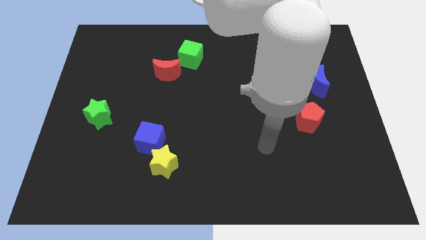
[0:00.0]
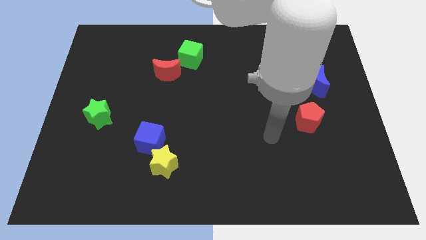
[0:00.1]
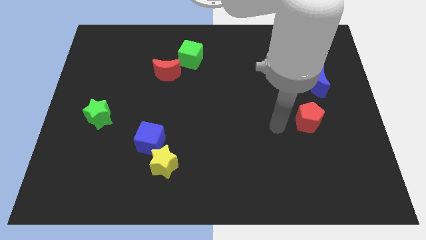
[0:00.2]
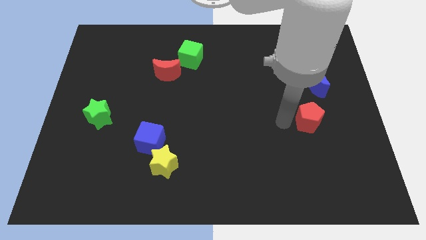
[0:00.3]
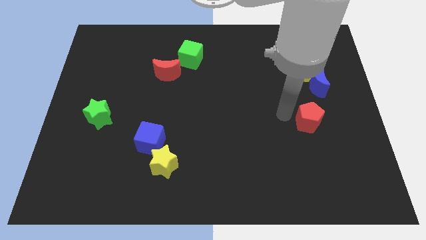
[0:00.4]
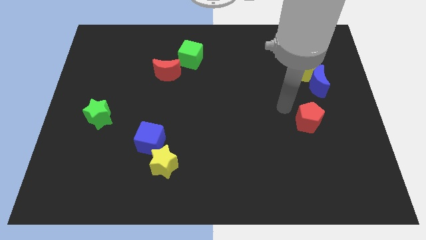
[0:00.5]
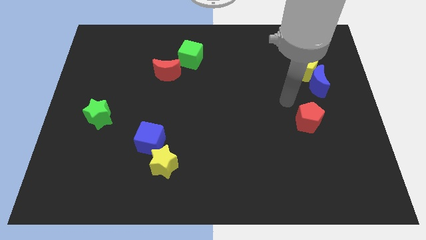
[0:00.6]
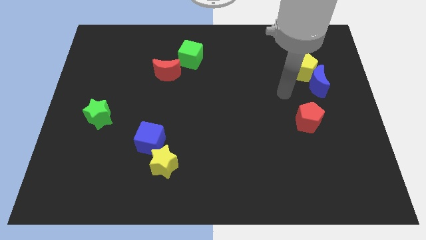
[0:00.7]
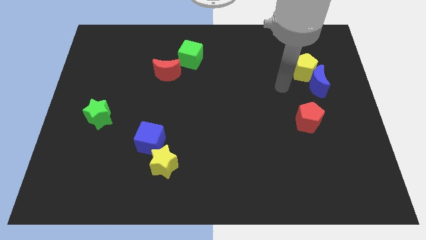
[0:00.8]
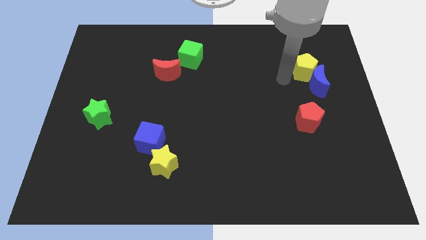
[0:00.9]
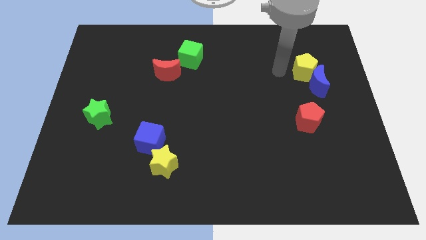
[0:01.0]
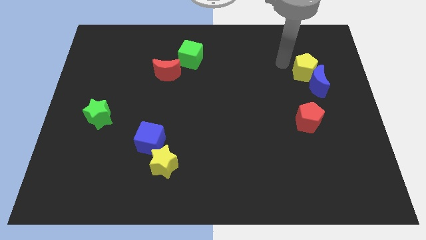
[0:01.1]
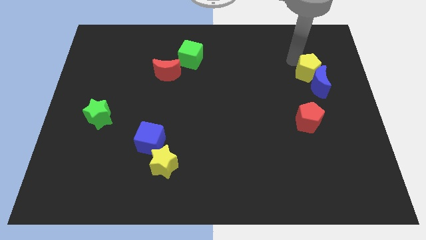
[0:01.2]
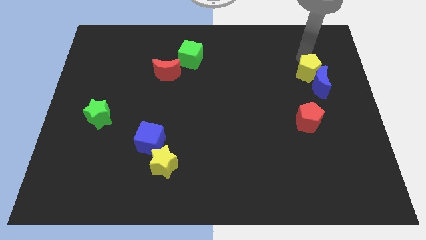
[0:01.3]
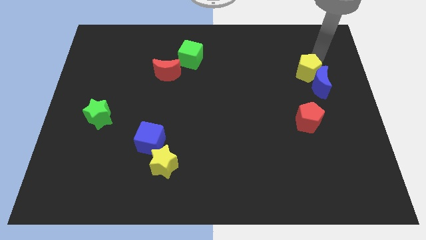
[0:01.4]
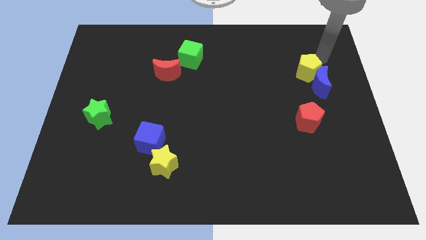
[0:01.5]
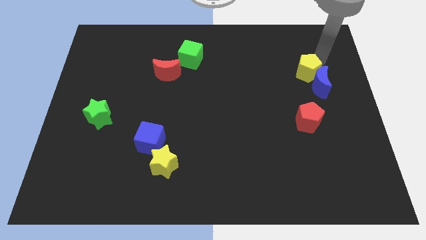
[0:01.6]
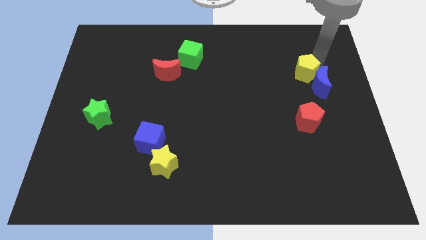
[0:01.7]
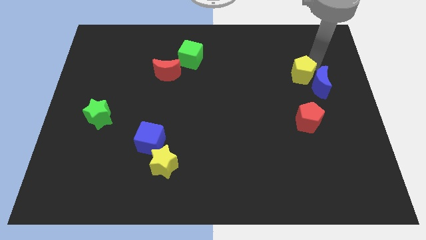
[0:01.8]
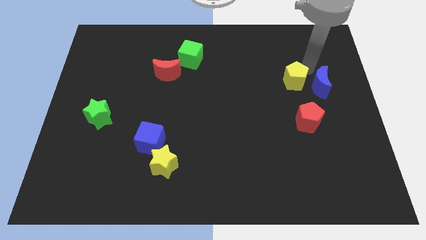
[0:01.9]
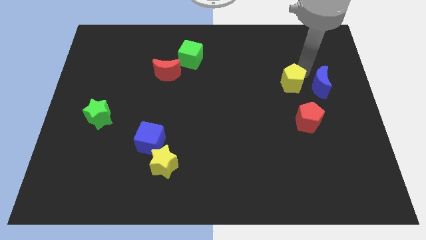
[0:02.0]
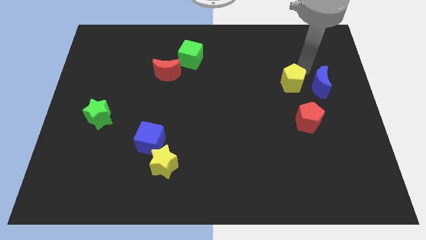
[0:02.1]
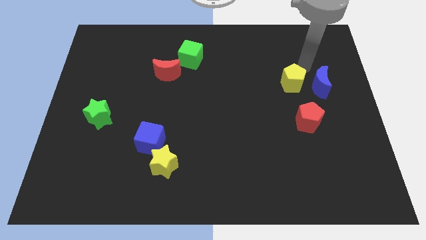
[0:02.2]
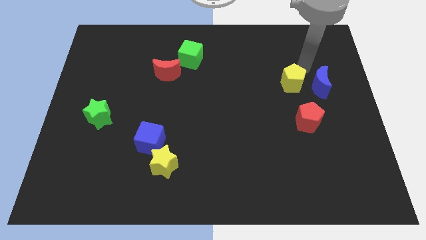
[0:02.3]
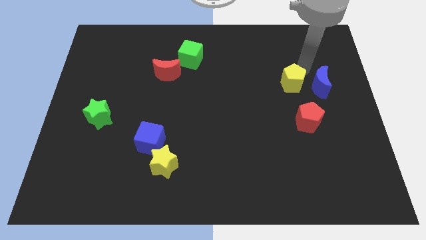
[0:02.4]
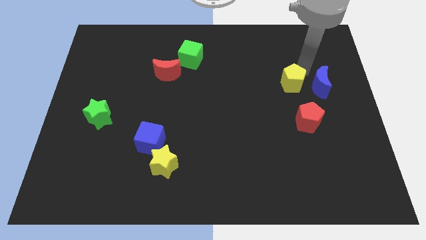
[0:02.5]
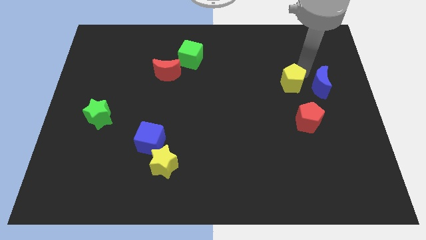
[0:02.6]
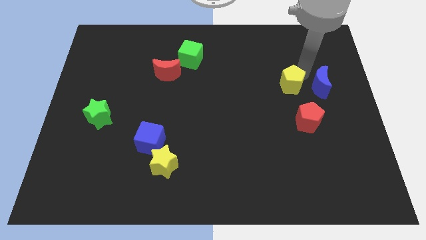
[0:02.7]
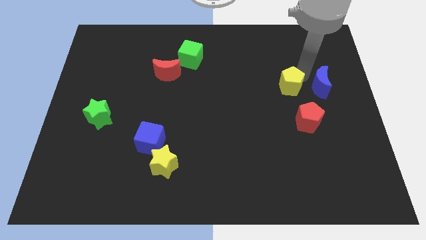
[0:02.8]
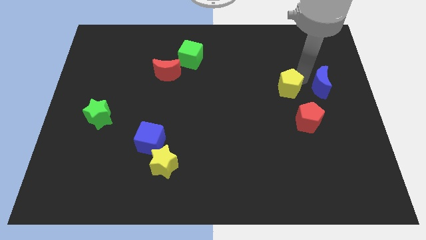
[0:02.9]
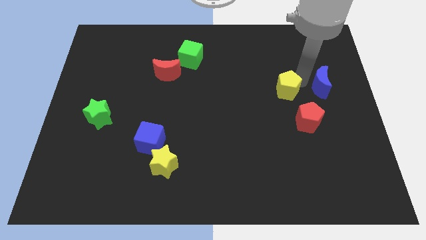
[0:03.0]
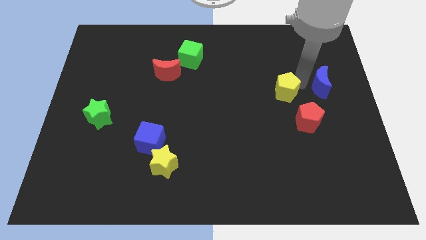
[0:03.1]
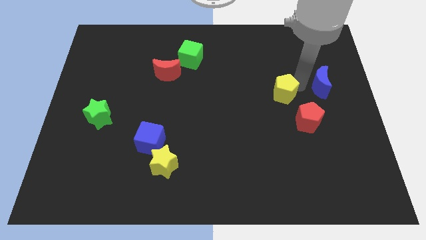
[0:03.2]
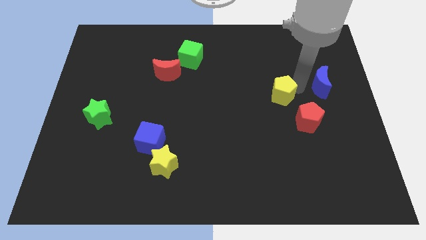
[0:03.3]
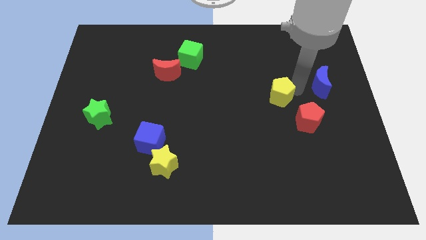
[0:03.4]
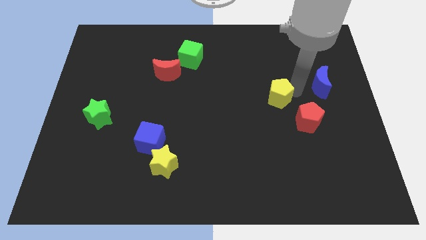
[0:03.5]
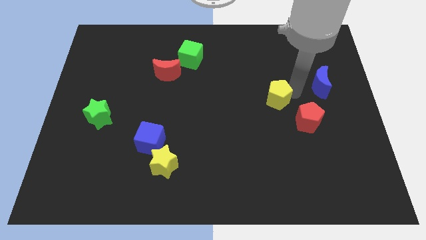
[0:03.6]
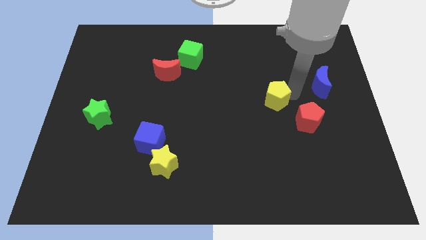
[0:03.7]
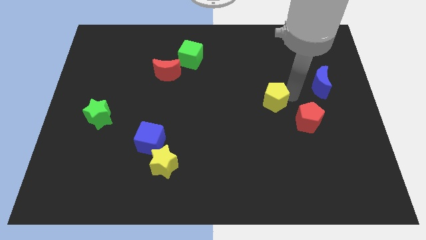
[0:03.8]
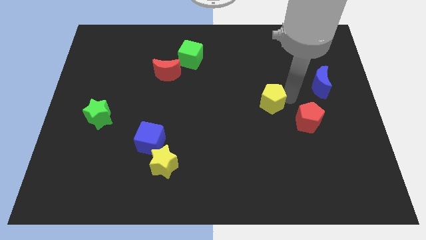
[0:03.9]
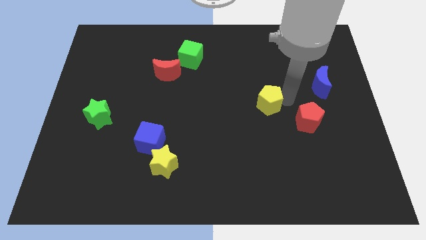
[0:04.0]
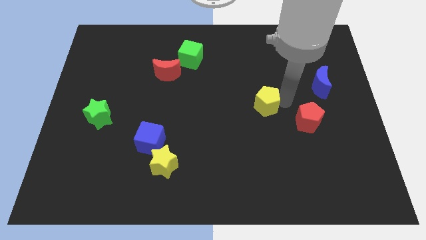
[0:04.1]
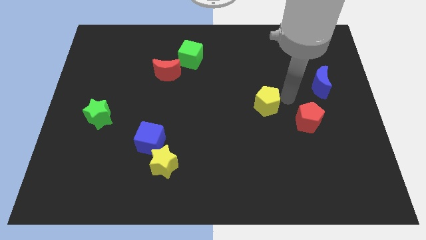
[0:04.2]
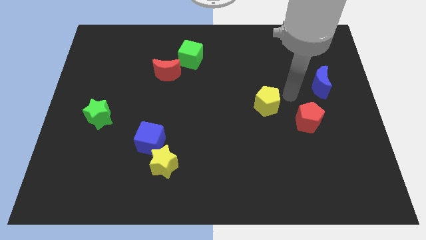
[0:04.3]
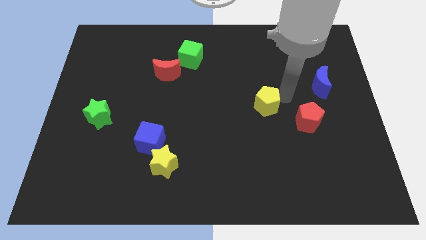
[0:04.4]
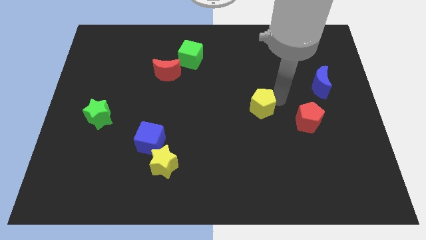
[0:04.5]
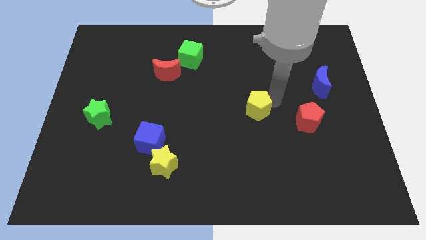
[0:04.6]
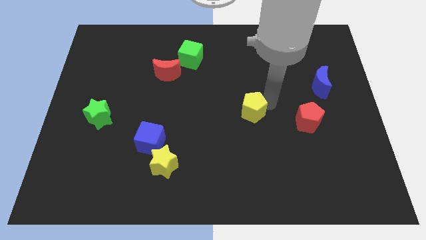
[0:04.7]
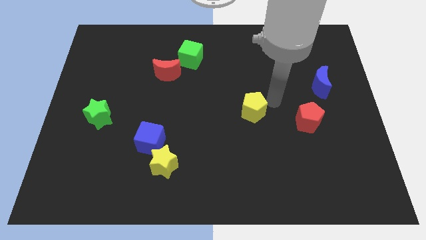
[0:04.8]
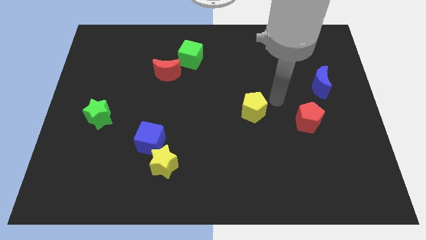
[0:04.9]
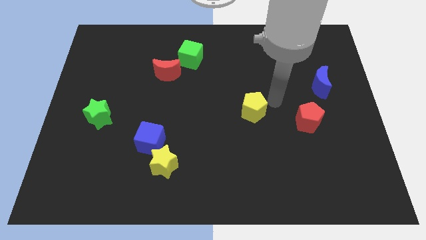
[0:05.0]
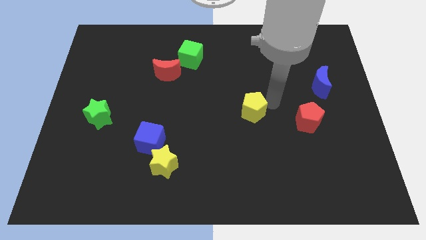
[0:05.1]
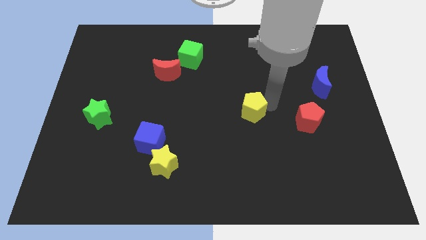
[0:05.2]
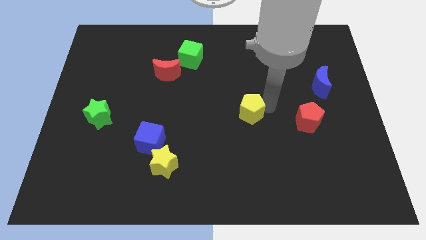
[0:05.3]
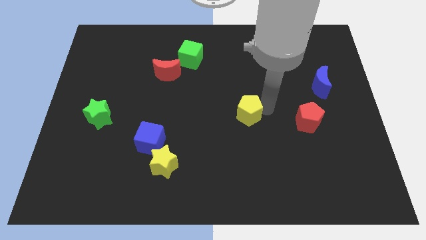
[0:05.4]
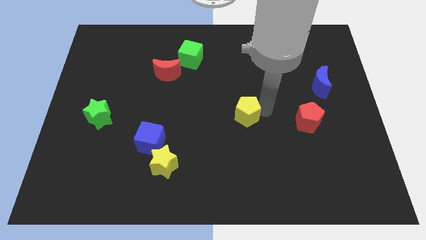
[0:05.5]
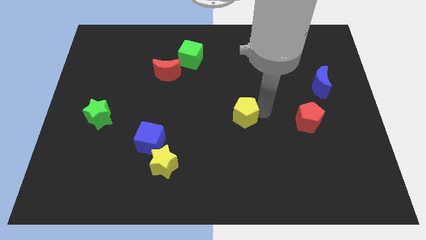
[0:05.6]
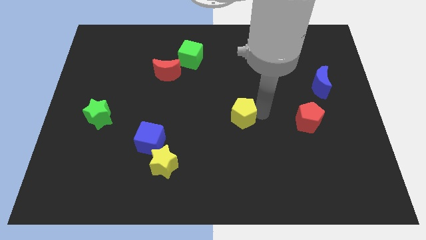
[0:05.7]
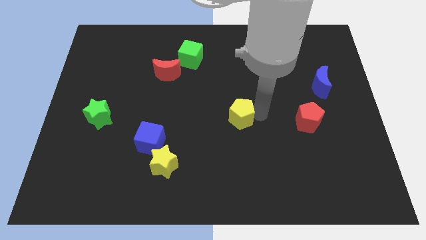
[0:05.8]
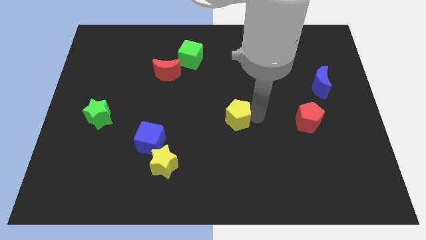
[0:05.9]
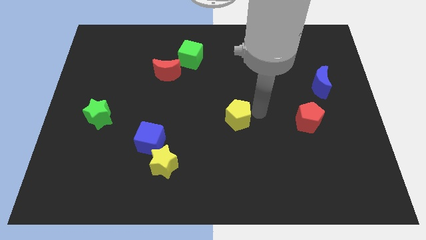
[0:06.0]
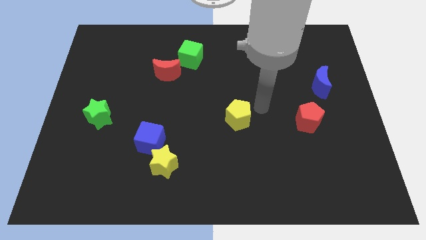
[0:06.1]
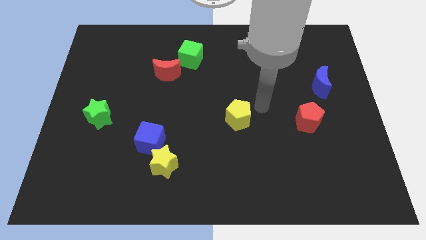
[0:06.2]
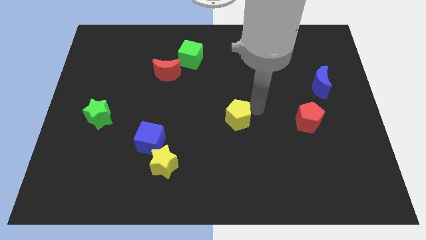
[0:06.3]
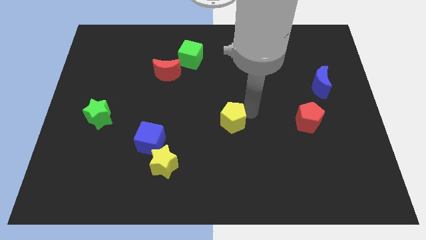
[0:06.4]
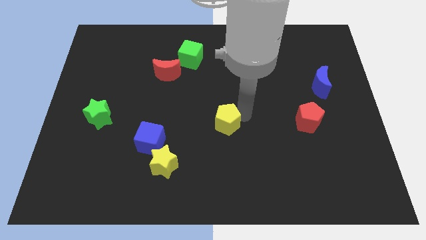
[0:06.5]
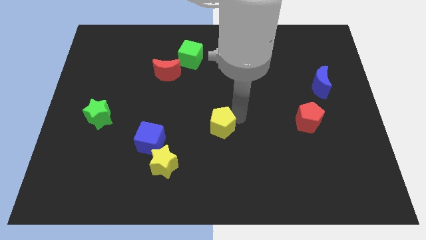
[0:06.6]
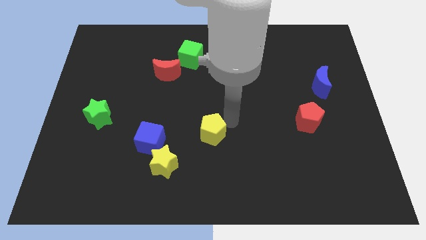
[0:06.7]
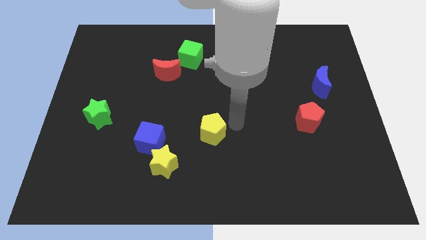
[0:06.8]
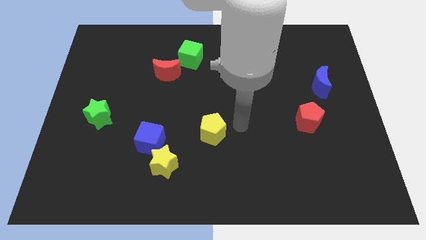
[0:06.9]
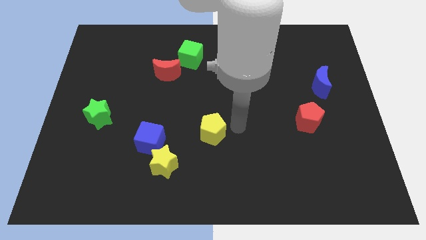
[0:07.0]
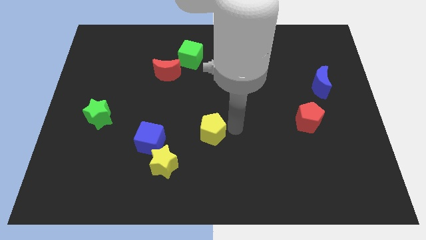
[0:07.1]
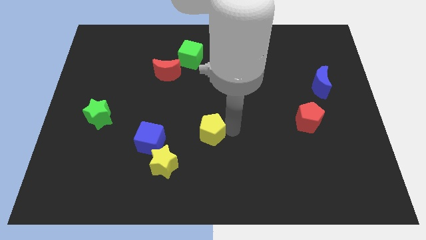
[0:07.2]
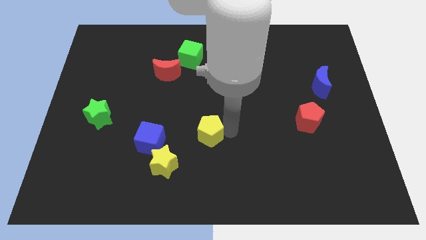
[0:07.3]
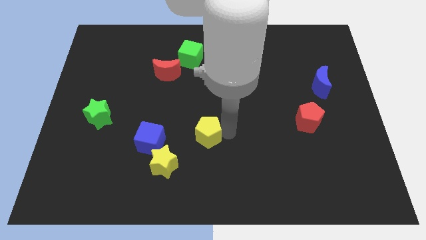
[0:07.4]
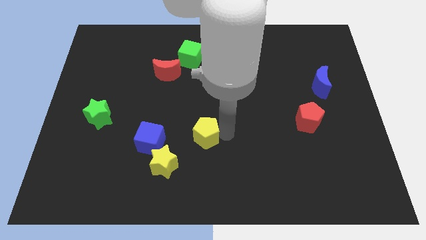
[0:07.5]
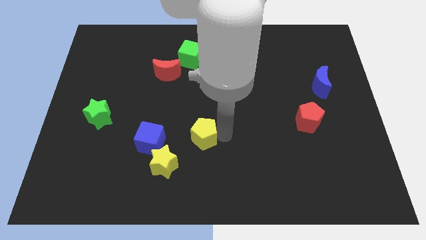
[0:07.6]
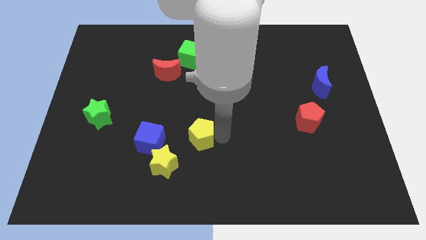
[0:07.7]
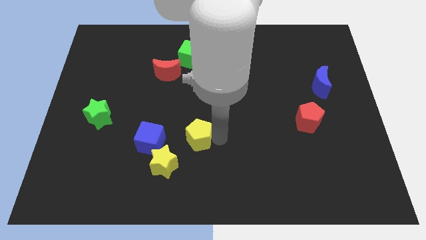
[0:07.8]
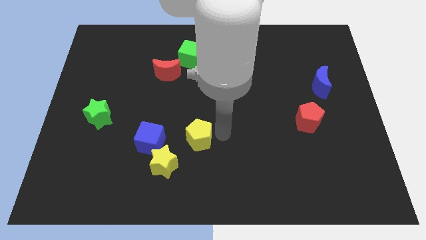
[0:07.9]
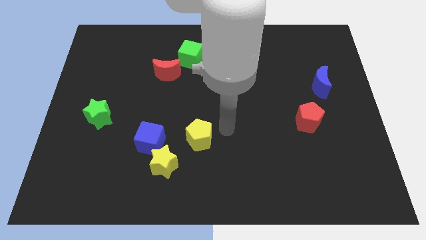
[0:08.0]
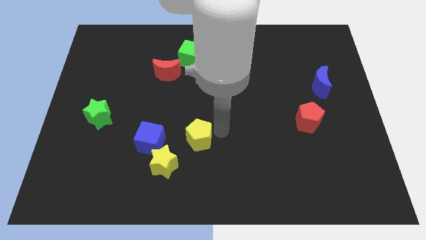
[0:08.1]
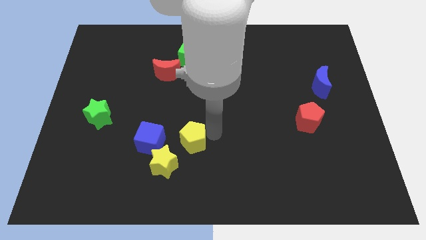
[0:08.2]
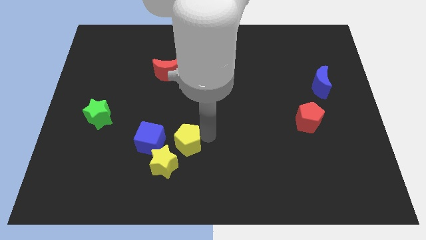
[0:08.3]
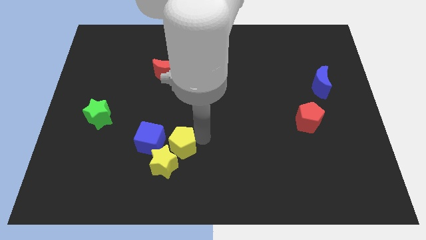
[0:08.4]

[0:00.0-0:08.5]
move the yellow pentagon close to the yellow star
